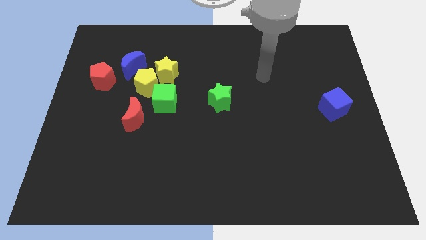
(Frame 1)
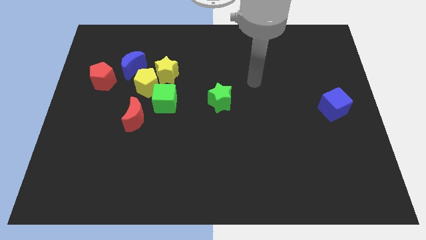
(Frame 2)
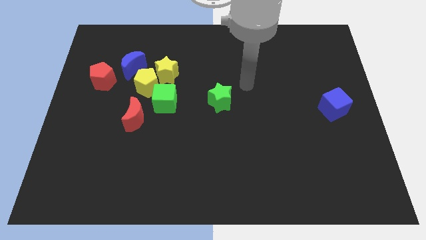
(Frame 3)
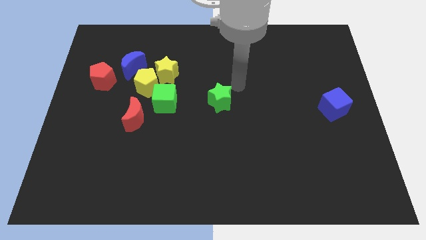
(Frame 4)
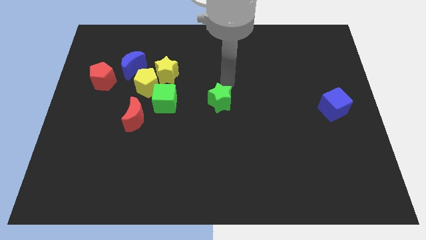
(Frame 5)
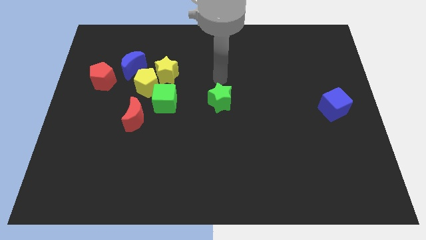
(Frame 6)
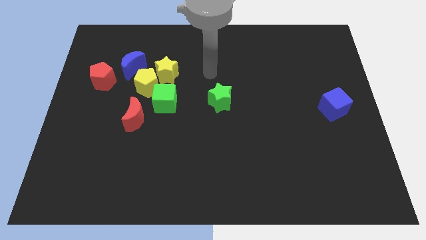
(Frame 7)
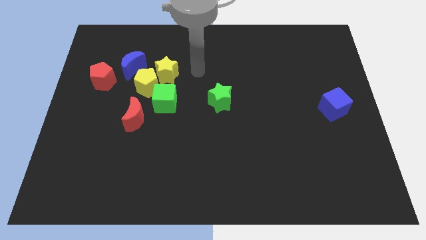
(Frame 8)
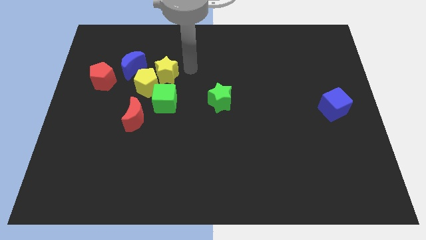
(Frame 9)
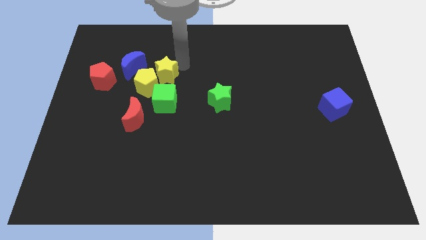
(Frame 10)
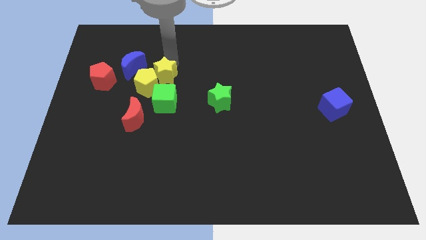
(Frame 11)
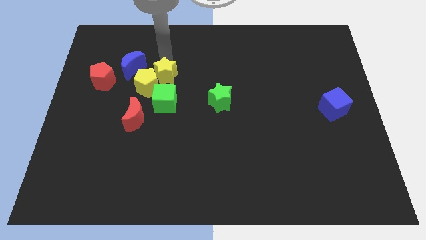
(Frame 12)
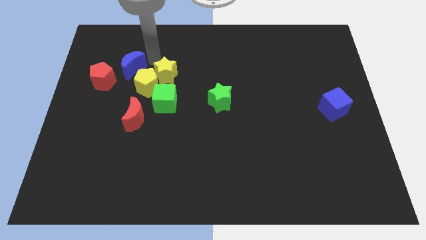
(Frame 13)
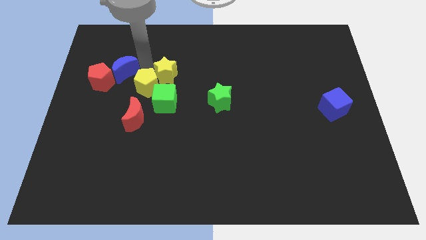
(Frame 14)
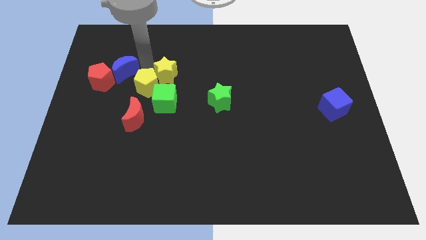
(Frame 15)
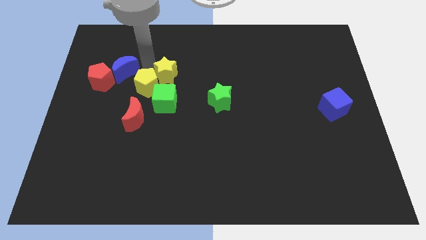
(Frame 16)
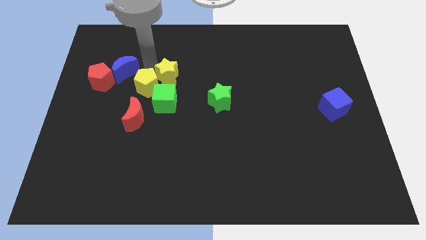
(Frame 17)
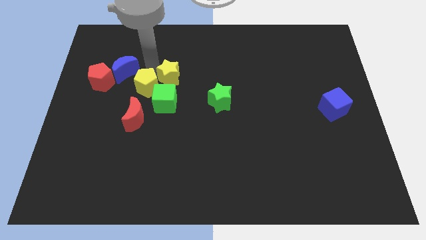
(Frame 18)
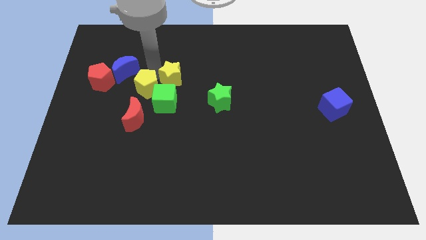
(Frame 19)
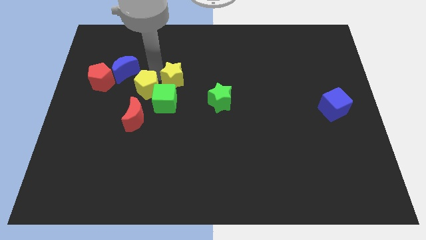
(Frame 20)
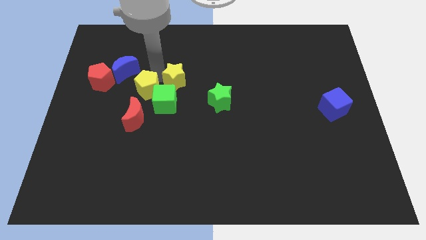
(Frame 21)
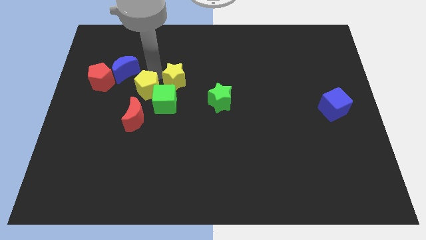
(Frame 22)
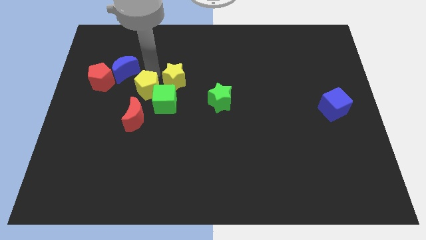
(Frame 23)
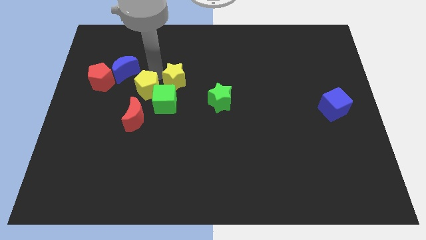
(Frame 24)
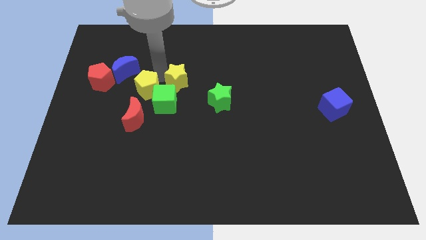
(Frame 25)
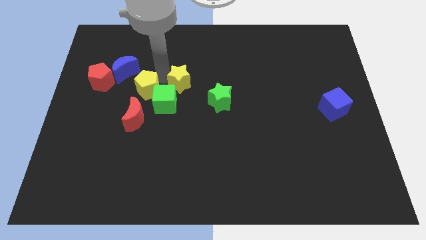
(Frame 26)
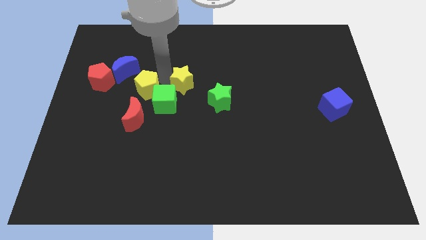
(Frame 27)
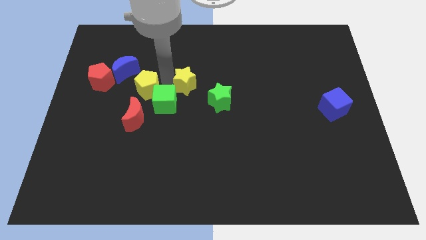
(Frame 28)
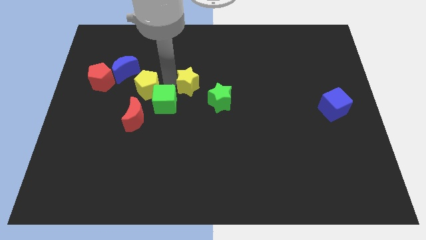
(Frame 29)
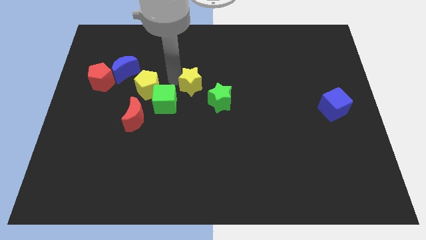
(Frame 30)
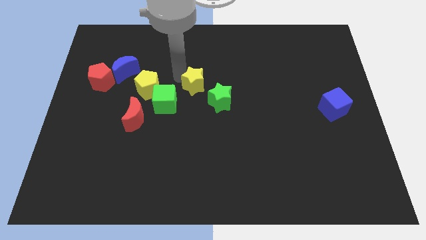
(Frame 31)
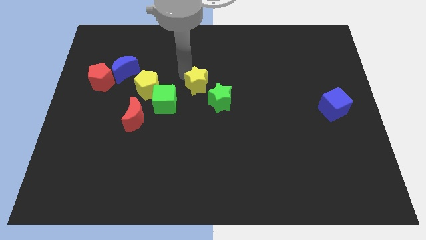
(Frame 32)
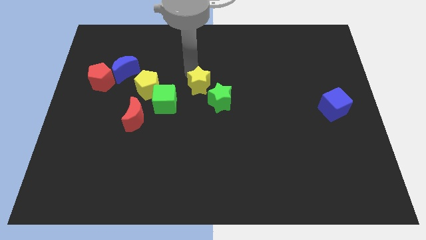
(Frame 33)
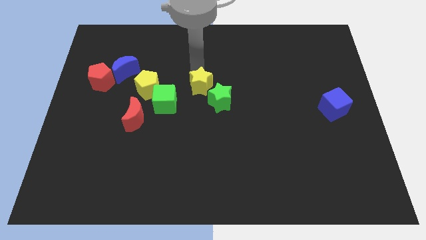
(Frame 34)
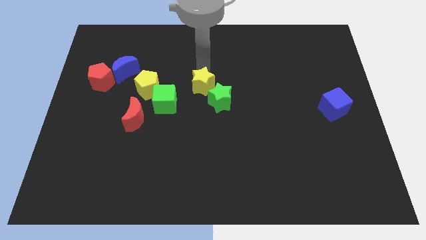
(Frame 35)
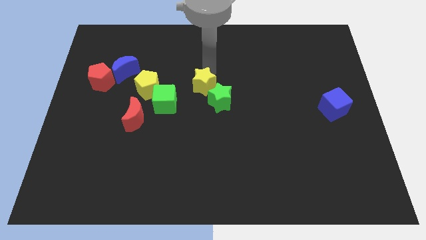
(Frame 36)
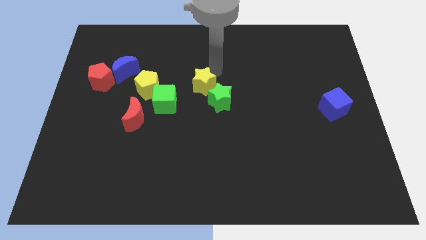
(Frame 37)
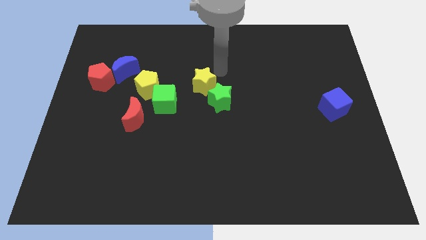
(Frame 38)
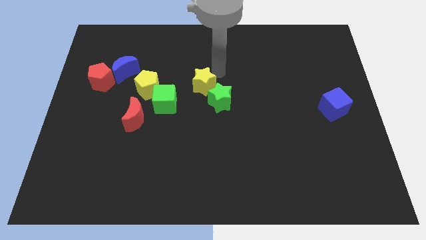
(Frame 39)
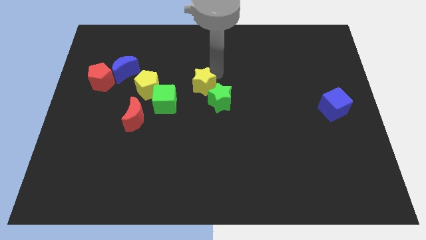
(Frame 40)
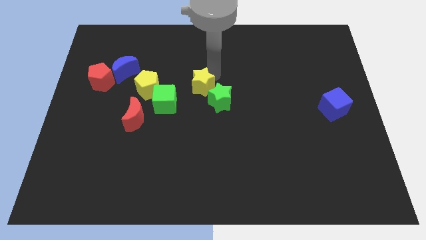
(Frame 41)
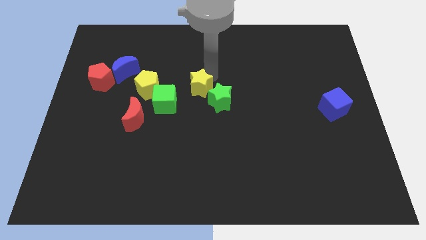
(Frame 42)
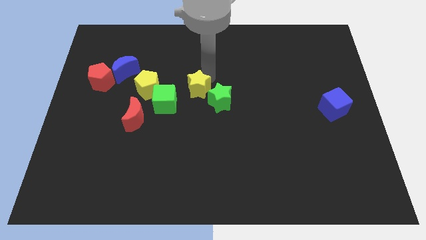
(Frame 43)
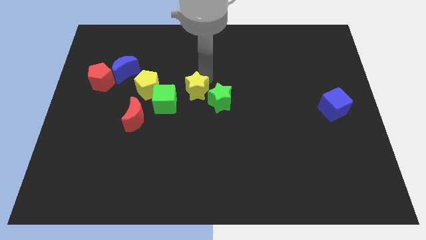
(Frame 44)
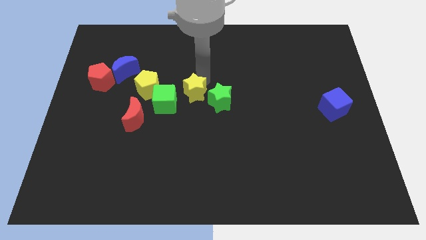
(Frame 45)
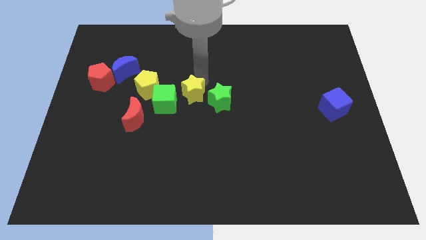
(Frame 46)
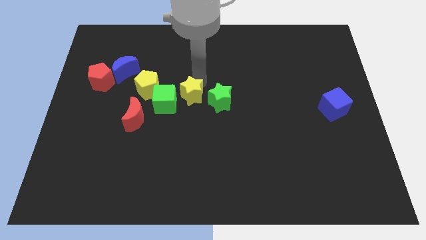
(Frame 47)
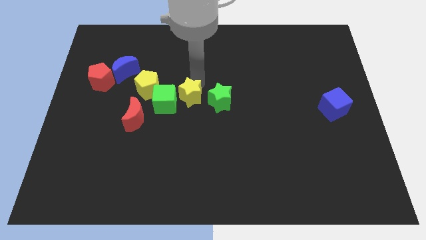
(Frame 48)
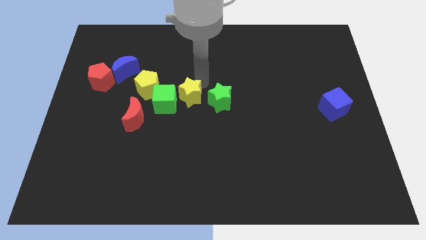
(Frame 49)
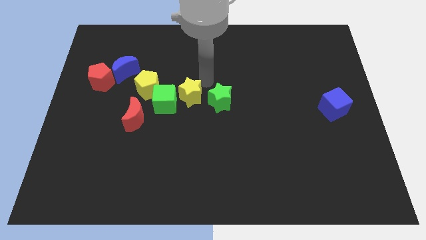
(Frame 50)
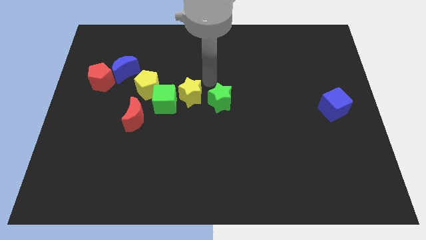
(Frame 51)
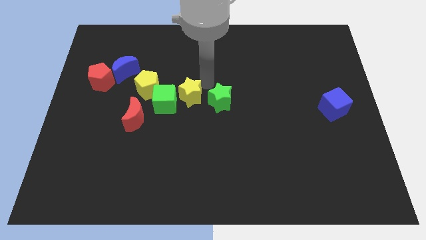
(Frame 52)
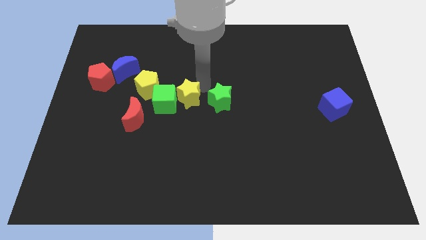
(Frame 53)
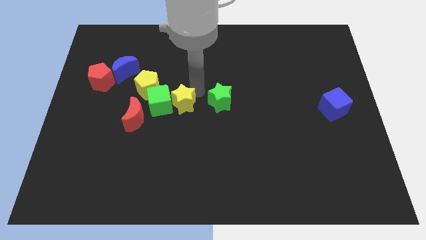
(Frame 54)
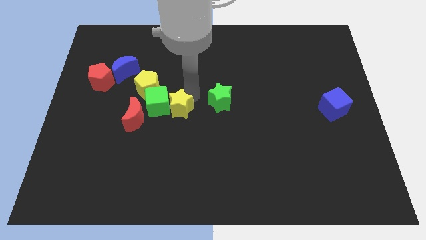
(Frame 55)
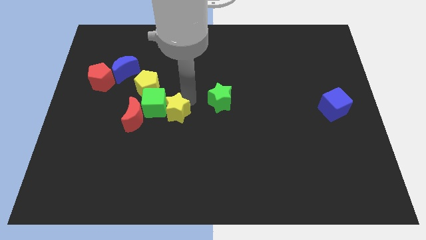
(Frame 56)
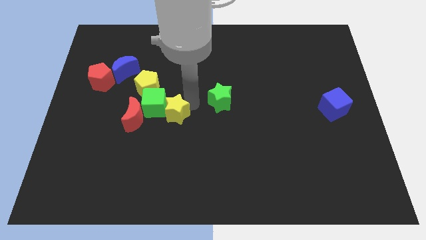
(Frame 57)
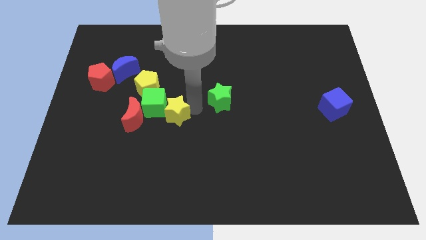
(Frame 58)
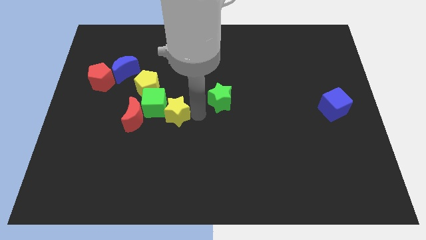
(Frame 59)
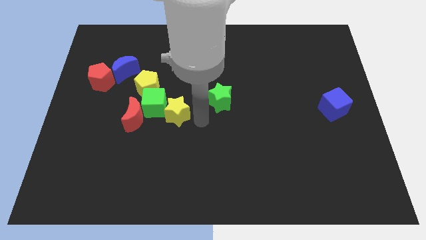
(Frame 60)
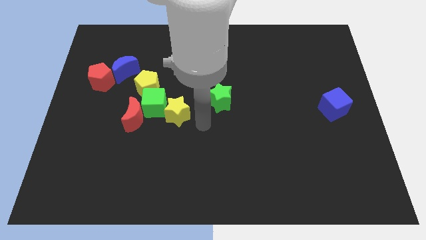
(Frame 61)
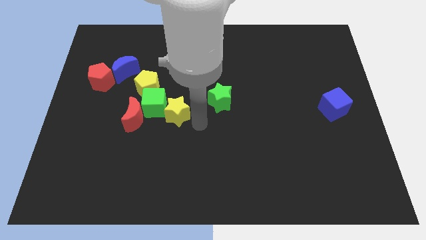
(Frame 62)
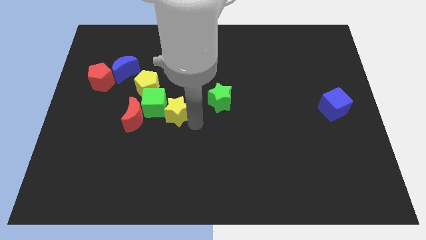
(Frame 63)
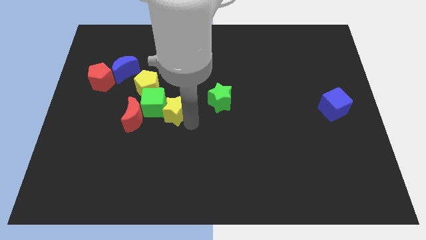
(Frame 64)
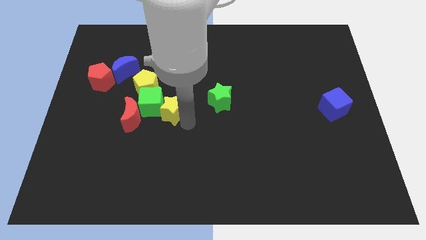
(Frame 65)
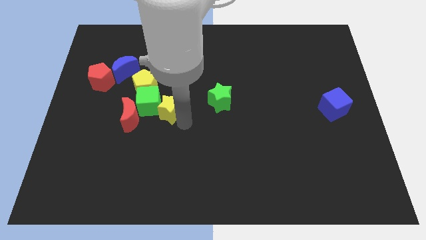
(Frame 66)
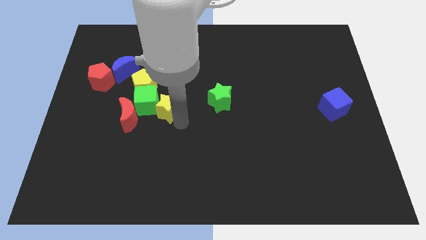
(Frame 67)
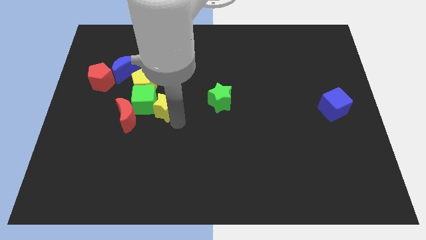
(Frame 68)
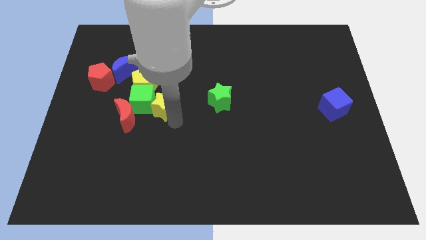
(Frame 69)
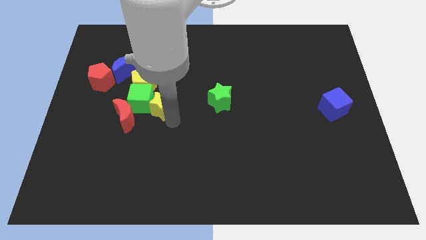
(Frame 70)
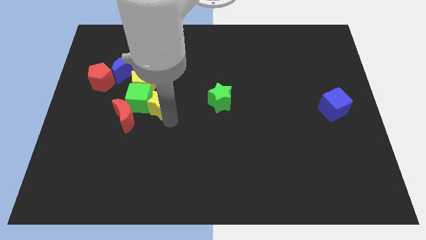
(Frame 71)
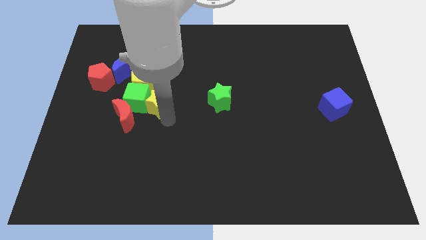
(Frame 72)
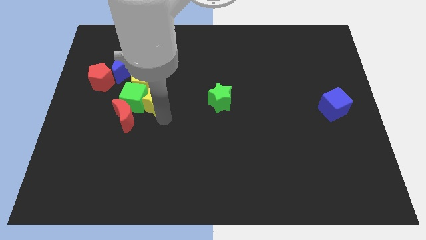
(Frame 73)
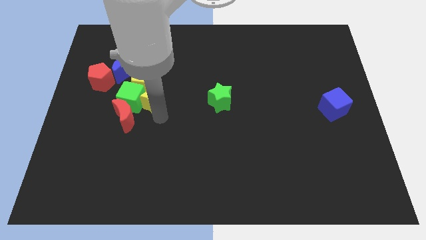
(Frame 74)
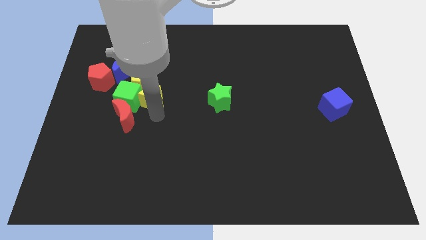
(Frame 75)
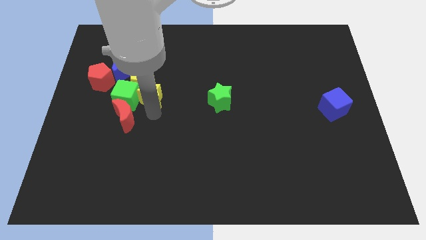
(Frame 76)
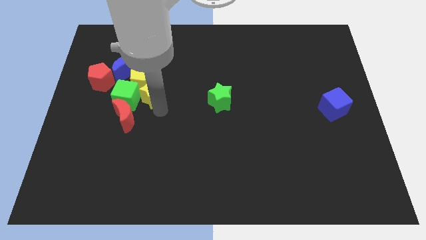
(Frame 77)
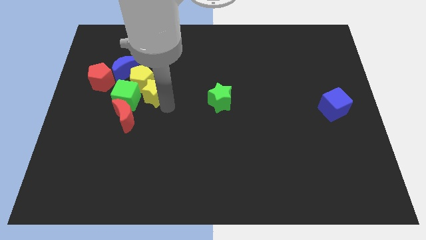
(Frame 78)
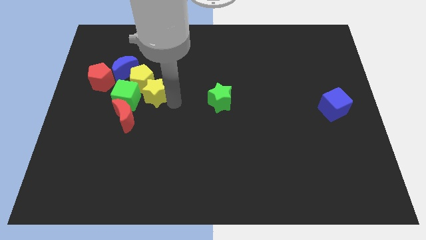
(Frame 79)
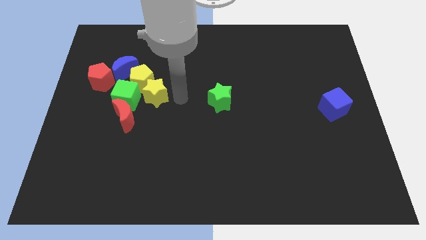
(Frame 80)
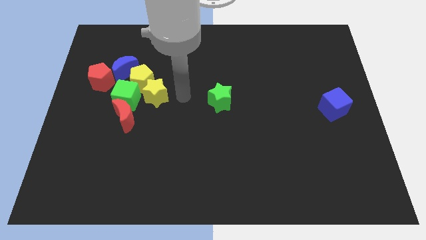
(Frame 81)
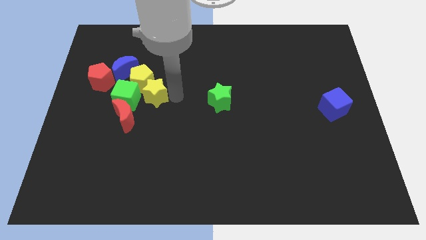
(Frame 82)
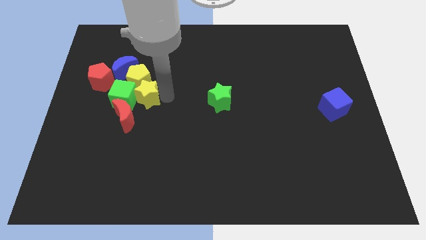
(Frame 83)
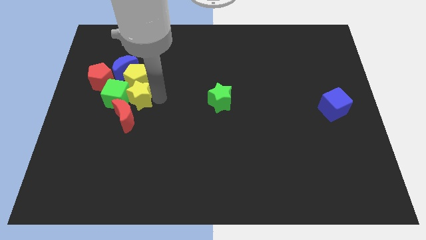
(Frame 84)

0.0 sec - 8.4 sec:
slide the yellow star to the bottom right of the red pentagon
